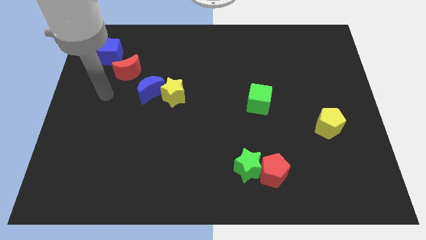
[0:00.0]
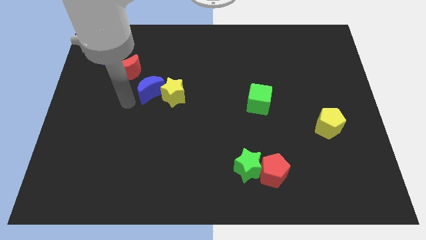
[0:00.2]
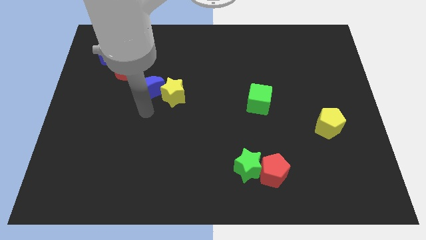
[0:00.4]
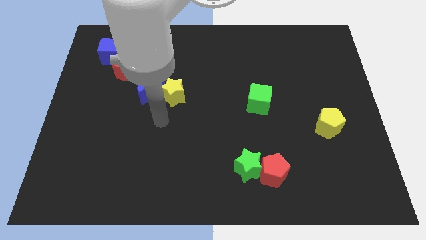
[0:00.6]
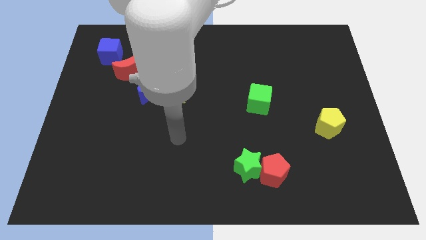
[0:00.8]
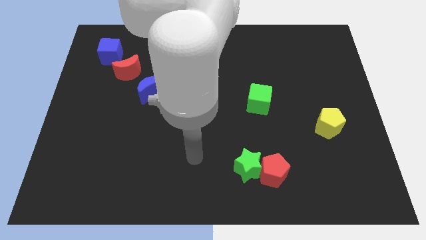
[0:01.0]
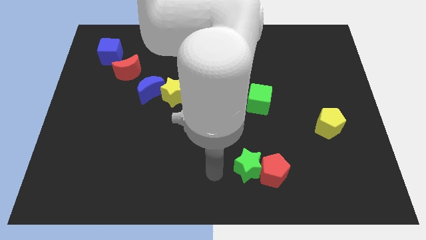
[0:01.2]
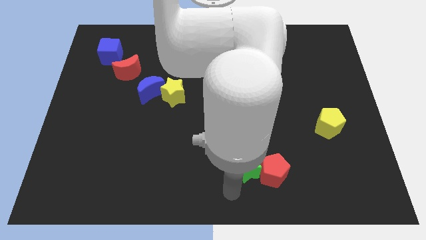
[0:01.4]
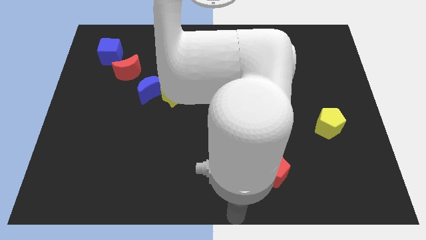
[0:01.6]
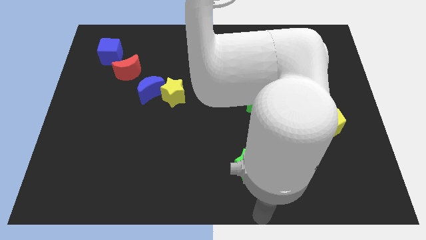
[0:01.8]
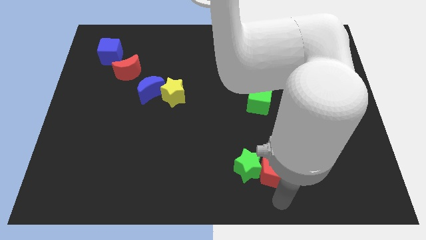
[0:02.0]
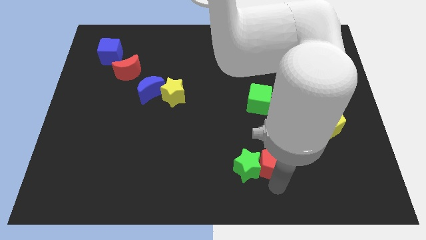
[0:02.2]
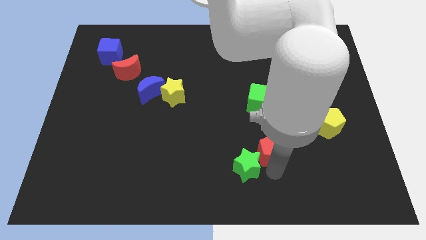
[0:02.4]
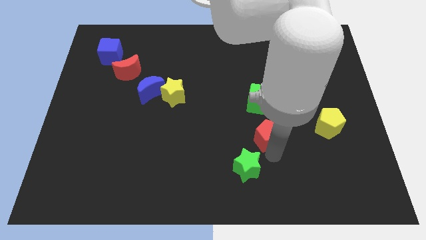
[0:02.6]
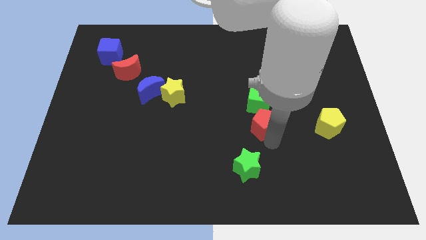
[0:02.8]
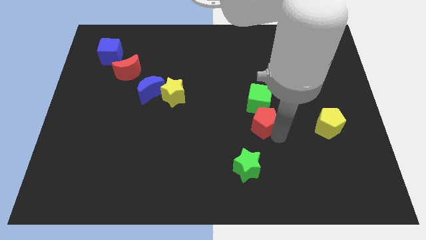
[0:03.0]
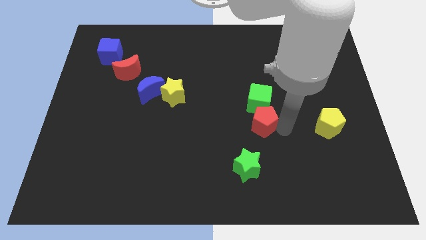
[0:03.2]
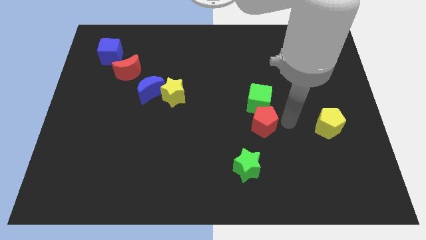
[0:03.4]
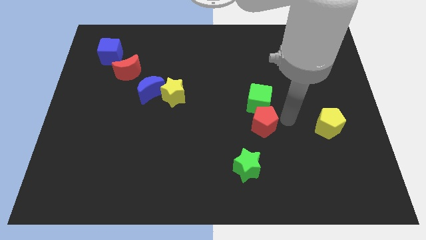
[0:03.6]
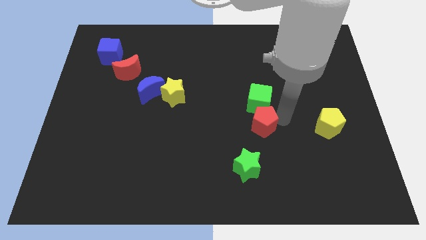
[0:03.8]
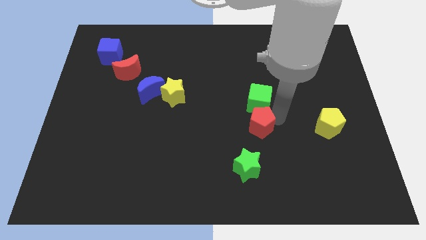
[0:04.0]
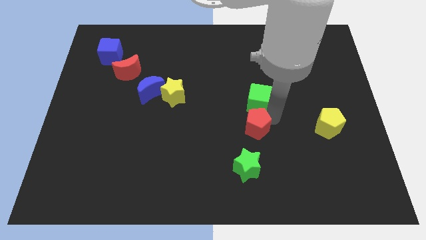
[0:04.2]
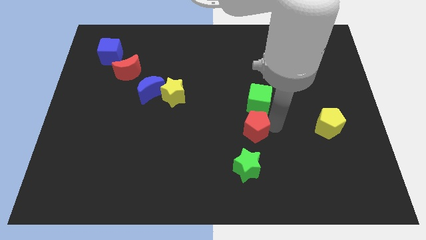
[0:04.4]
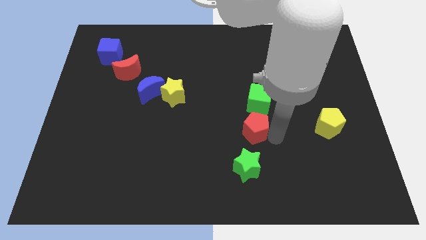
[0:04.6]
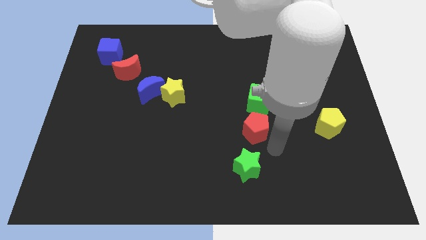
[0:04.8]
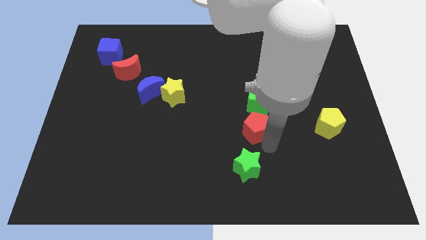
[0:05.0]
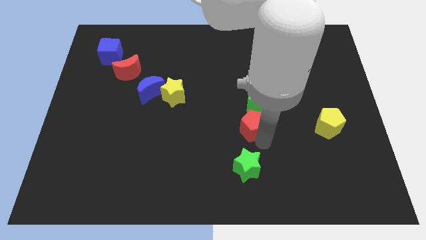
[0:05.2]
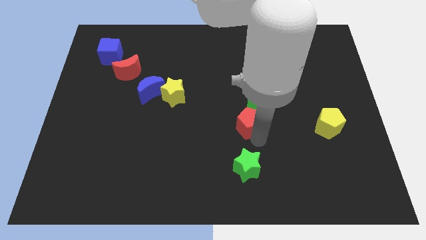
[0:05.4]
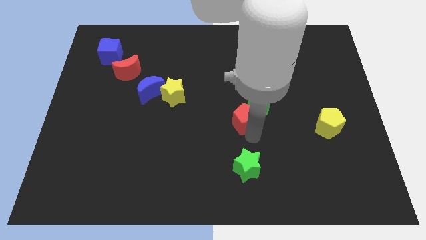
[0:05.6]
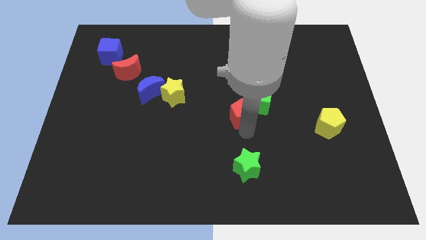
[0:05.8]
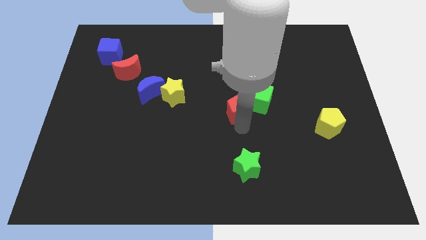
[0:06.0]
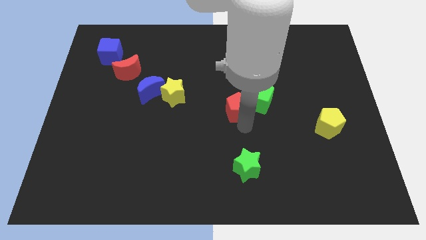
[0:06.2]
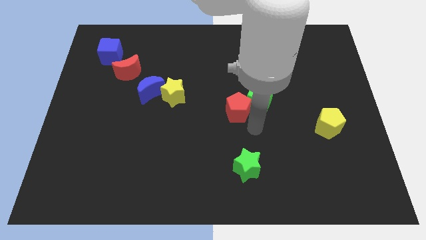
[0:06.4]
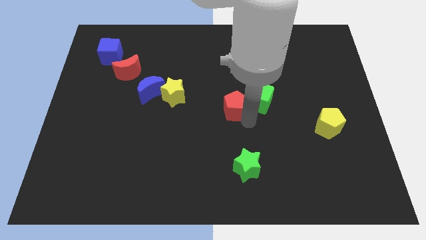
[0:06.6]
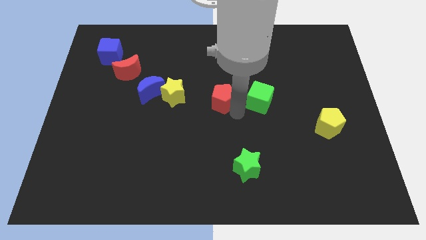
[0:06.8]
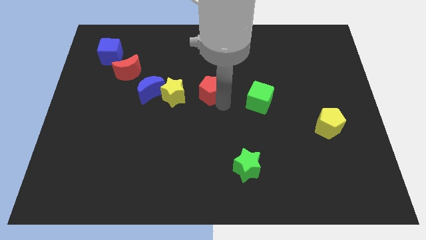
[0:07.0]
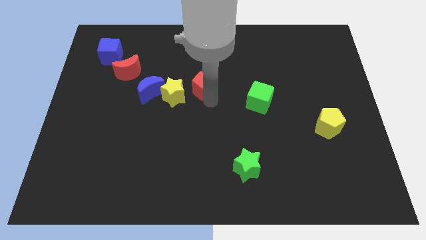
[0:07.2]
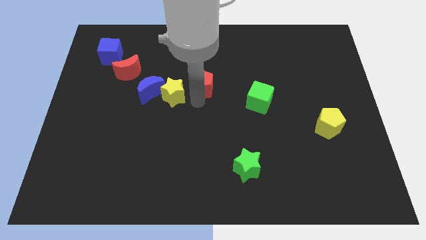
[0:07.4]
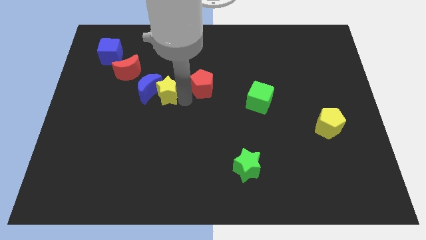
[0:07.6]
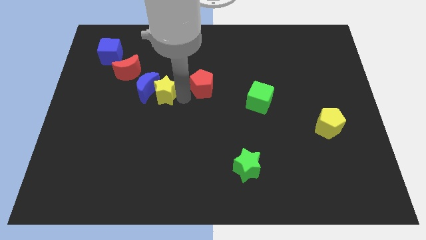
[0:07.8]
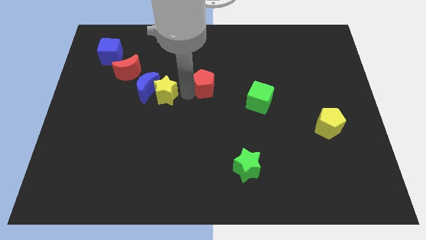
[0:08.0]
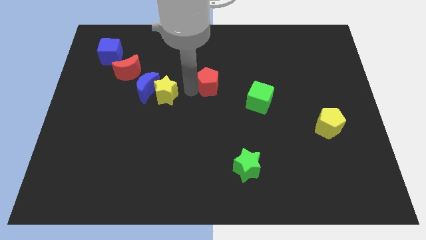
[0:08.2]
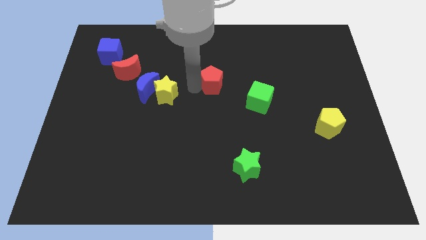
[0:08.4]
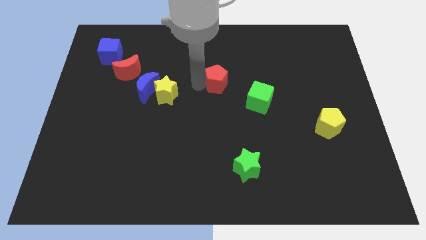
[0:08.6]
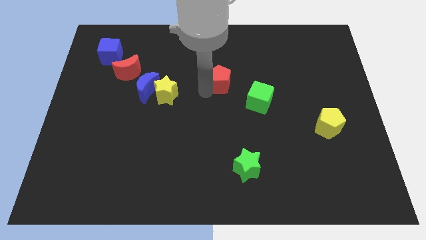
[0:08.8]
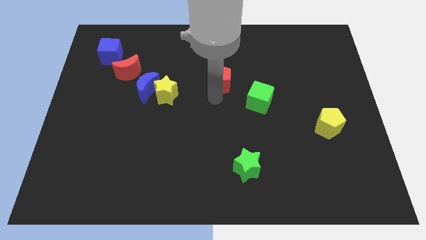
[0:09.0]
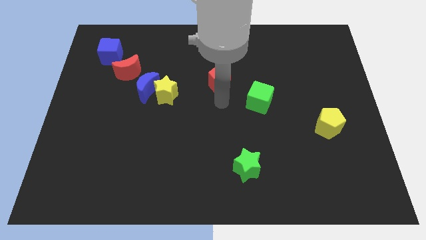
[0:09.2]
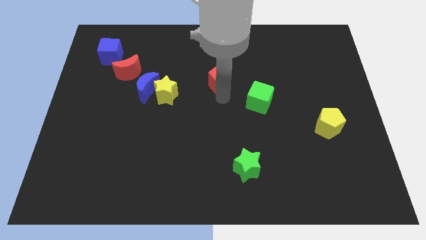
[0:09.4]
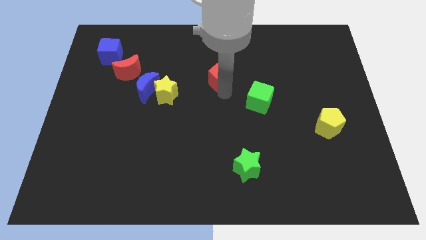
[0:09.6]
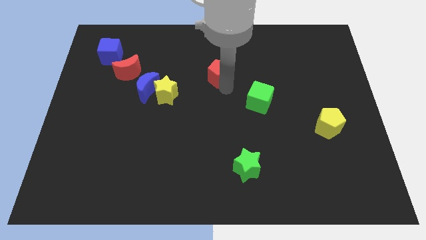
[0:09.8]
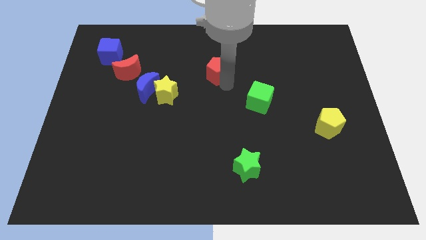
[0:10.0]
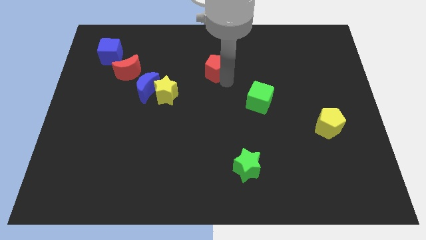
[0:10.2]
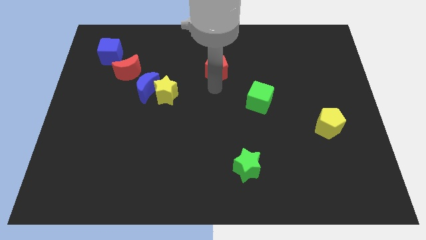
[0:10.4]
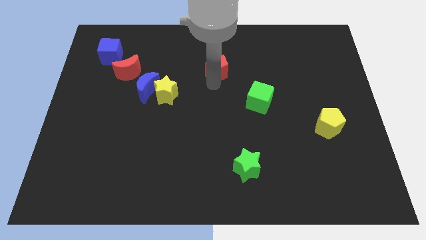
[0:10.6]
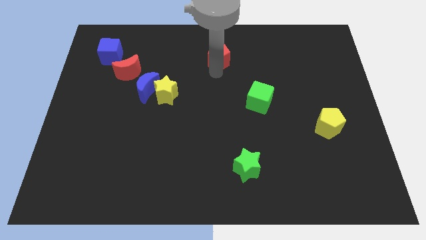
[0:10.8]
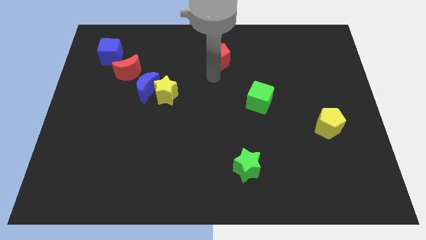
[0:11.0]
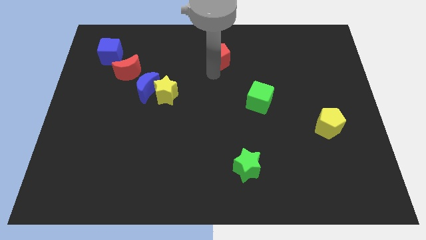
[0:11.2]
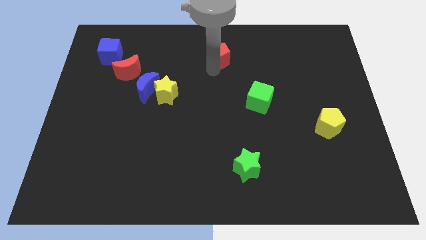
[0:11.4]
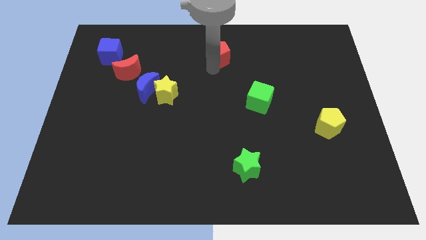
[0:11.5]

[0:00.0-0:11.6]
move the red pentagon to the top side

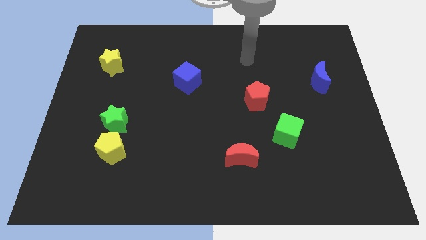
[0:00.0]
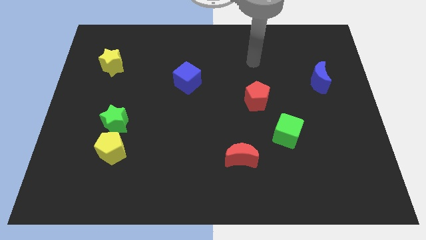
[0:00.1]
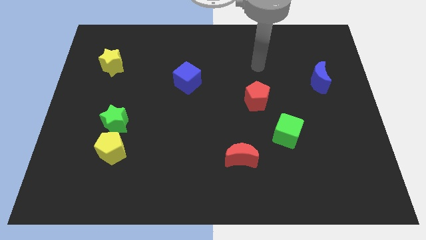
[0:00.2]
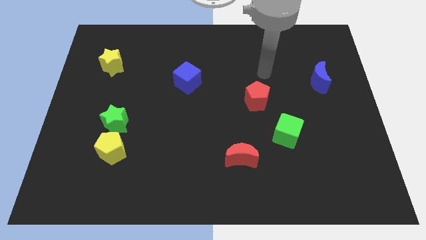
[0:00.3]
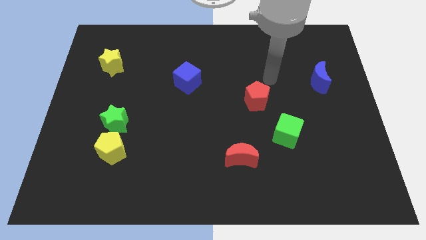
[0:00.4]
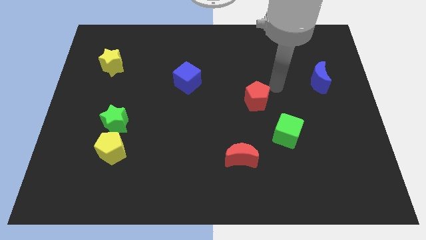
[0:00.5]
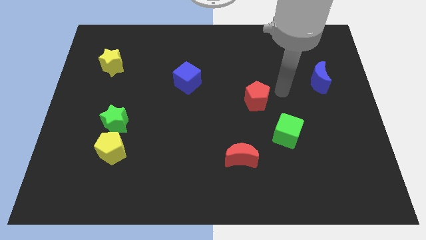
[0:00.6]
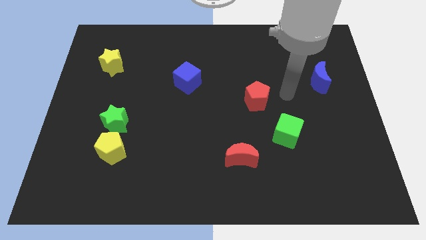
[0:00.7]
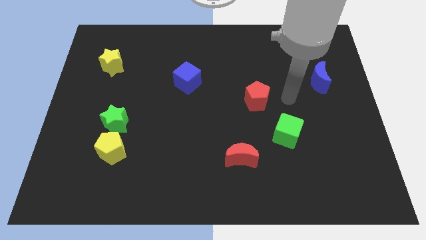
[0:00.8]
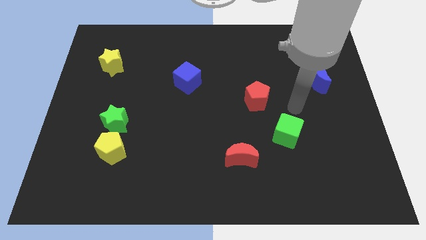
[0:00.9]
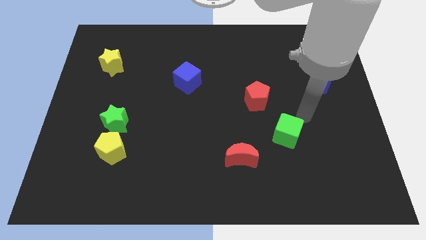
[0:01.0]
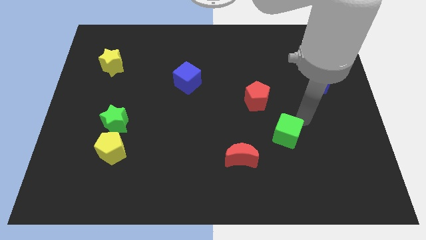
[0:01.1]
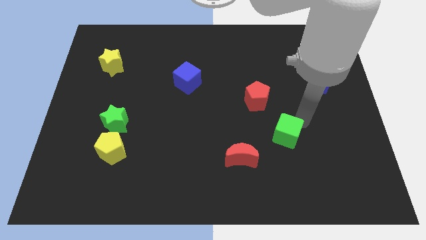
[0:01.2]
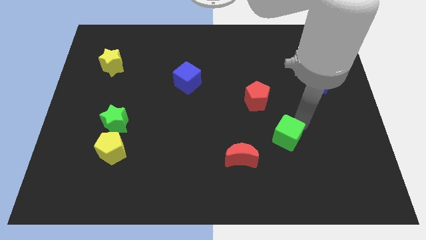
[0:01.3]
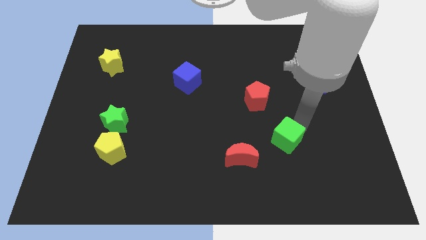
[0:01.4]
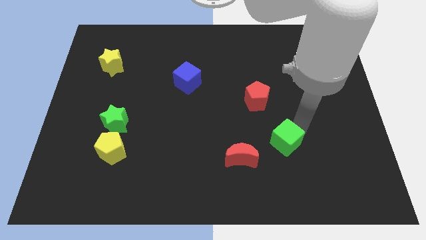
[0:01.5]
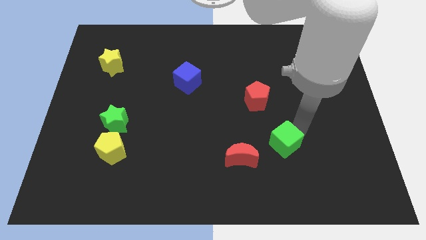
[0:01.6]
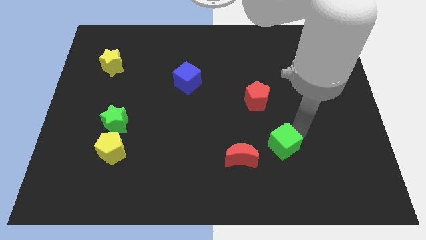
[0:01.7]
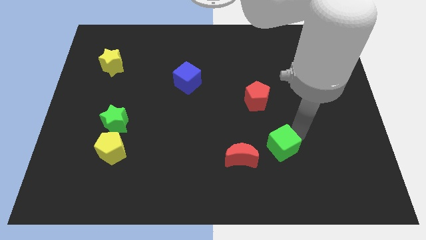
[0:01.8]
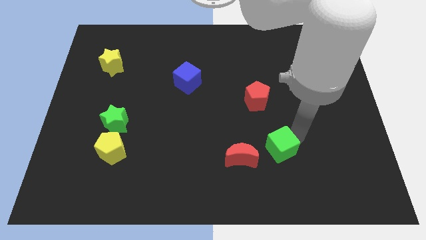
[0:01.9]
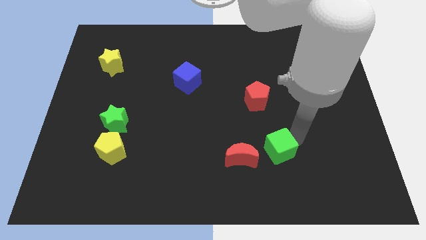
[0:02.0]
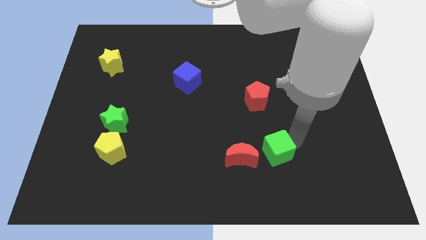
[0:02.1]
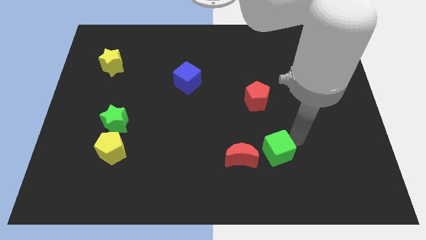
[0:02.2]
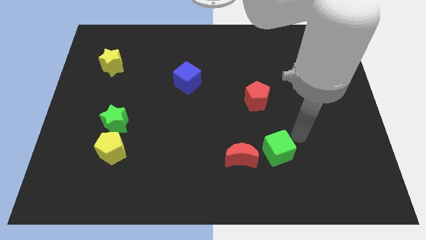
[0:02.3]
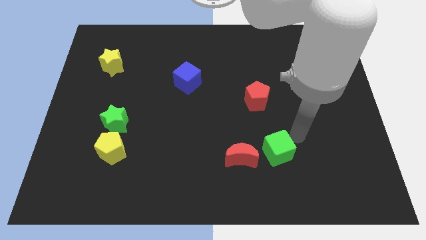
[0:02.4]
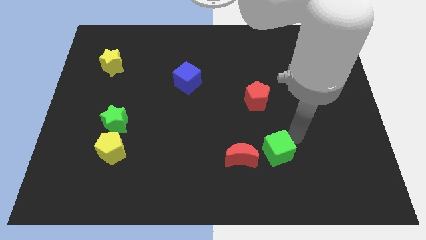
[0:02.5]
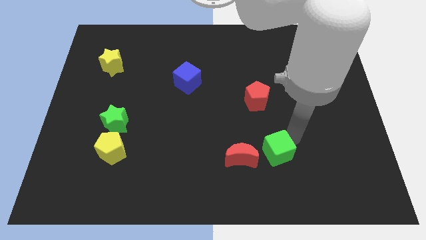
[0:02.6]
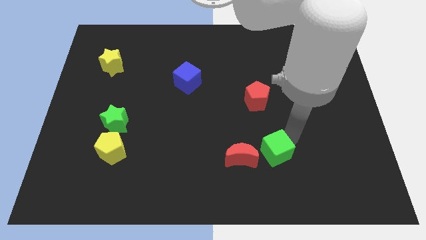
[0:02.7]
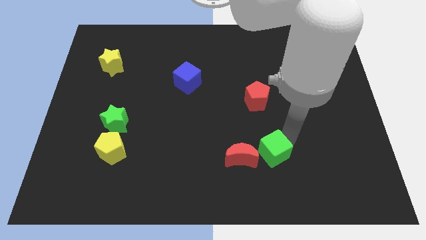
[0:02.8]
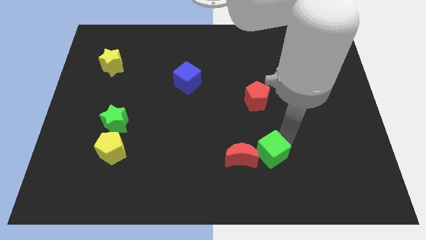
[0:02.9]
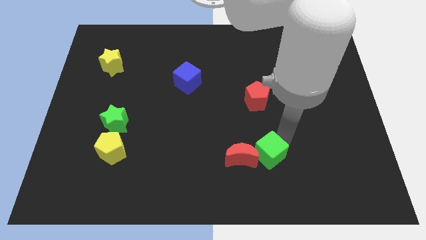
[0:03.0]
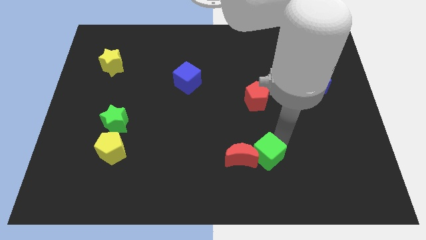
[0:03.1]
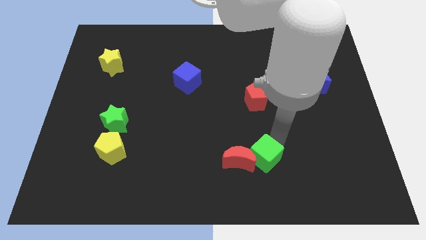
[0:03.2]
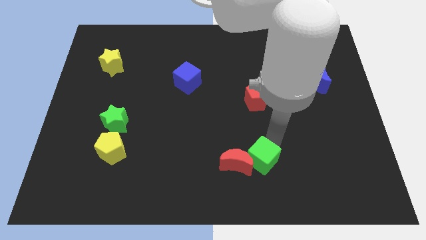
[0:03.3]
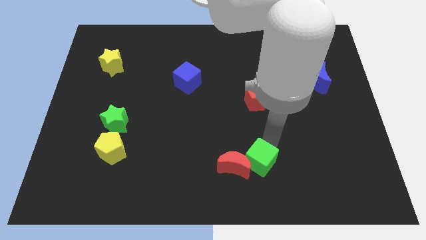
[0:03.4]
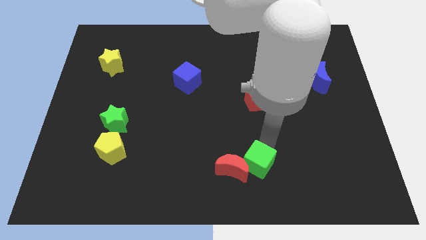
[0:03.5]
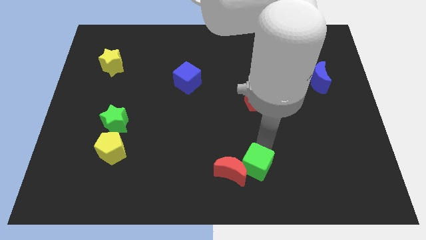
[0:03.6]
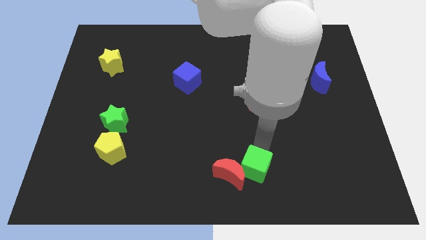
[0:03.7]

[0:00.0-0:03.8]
push the green cube to the bottom
